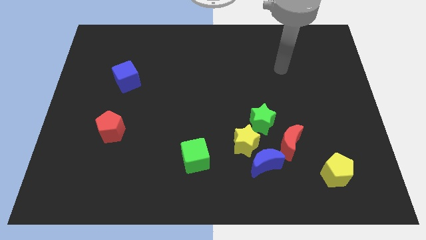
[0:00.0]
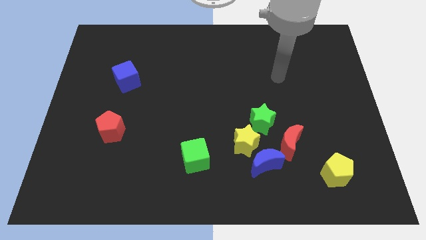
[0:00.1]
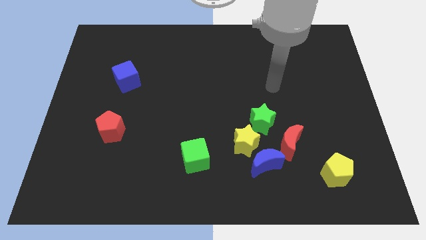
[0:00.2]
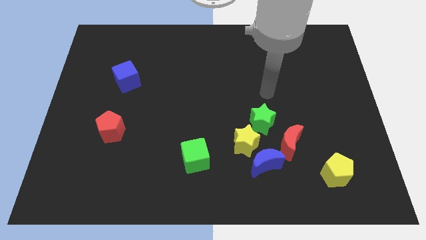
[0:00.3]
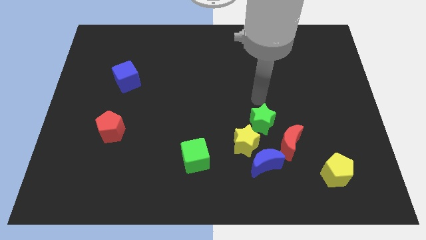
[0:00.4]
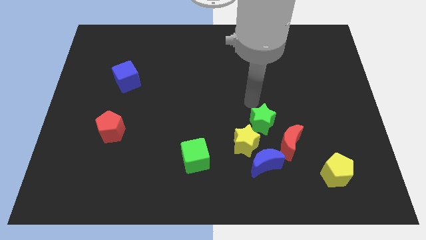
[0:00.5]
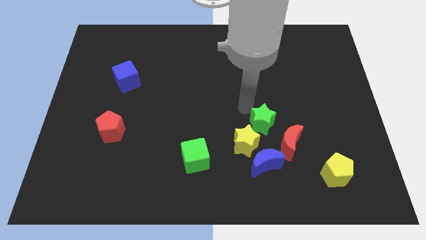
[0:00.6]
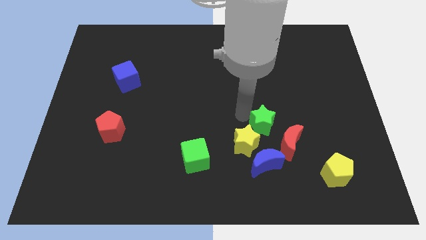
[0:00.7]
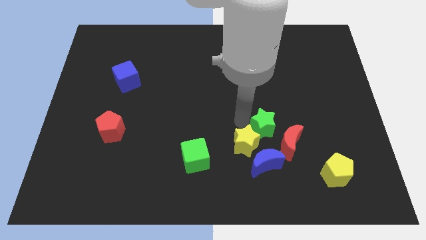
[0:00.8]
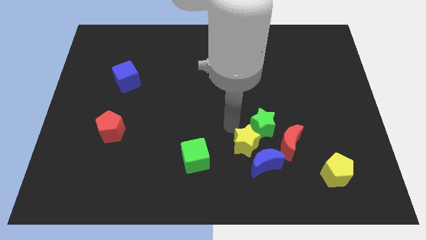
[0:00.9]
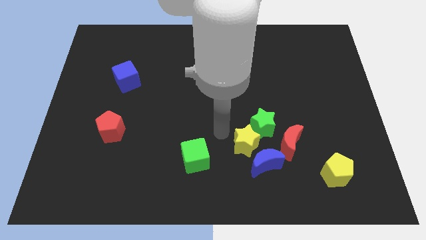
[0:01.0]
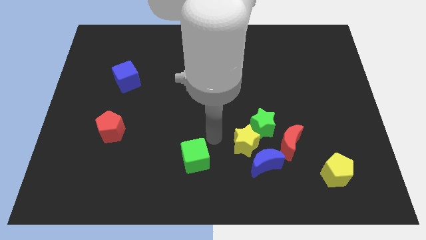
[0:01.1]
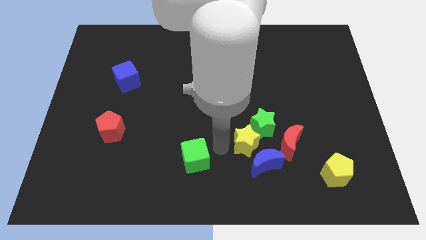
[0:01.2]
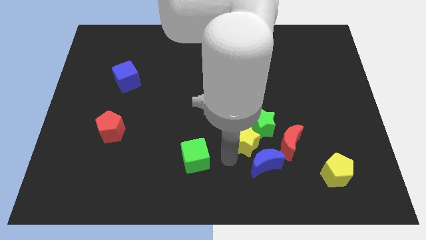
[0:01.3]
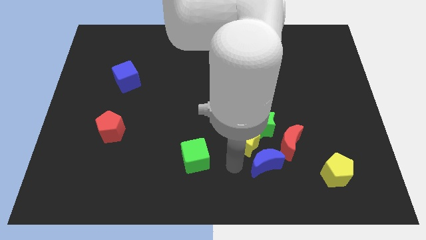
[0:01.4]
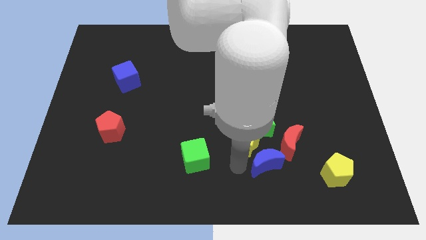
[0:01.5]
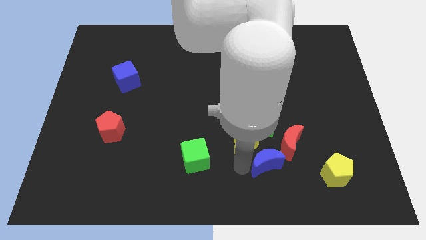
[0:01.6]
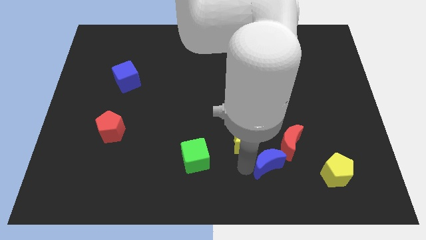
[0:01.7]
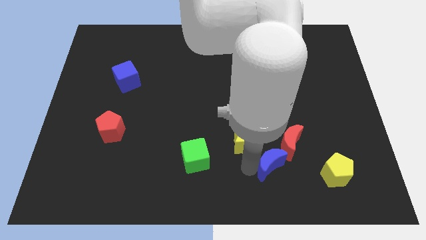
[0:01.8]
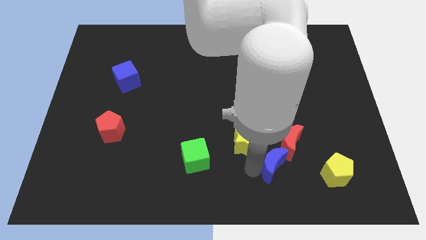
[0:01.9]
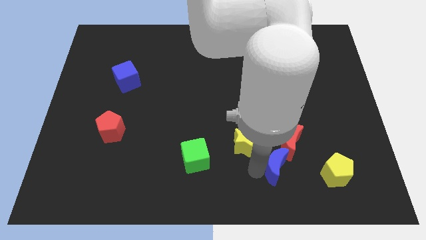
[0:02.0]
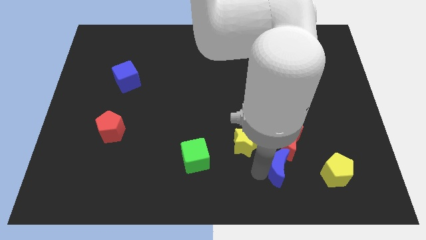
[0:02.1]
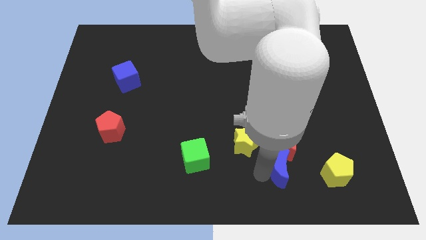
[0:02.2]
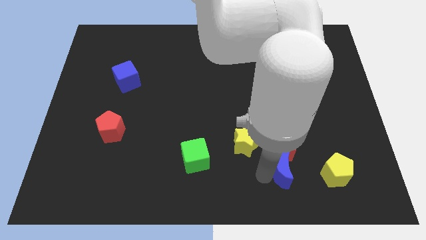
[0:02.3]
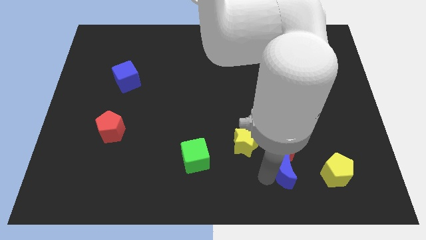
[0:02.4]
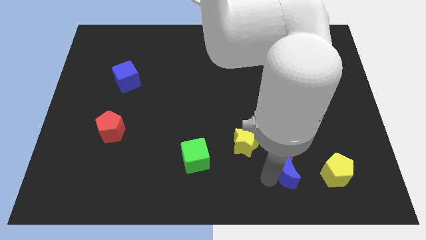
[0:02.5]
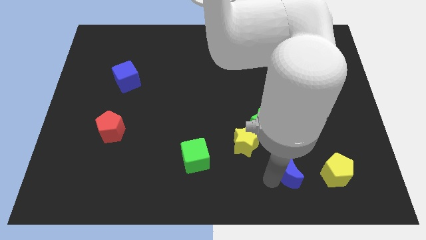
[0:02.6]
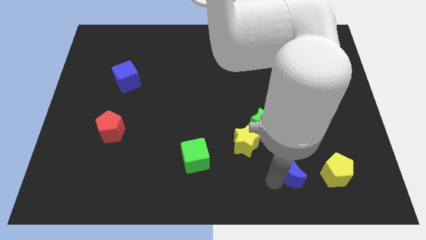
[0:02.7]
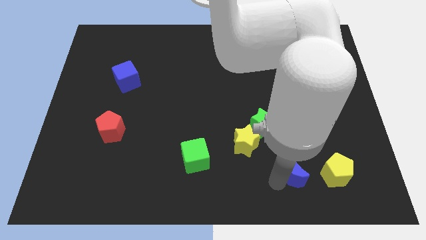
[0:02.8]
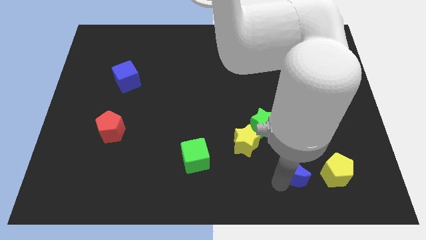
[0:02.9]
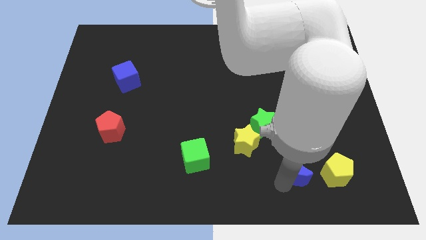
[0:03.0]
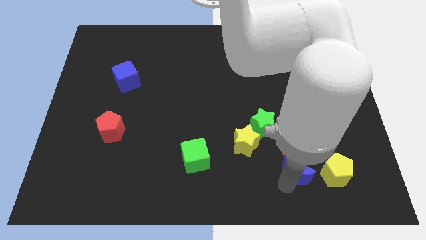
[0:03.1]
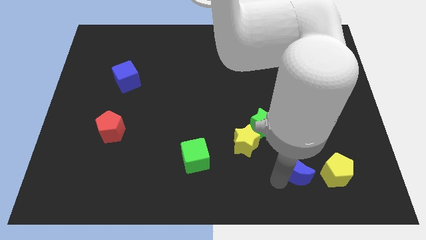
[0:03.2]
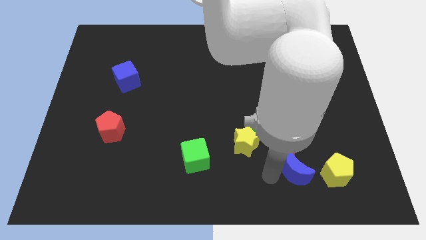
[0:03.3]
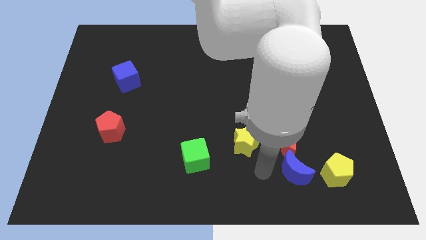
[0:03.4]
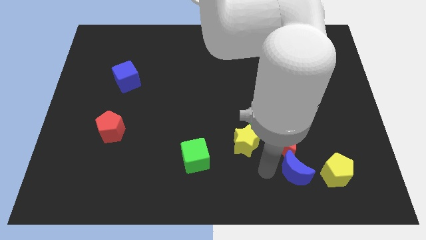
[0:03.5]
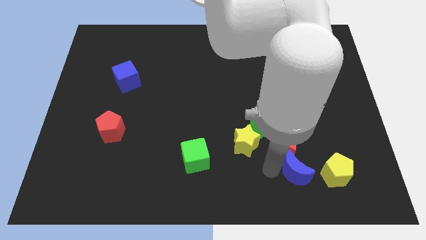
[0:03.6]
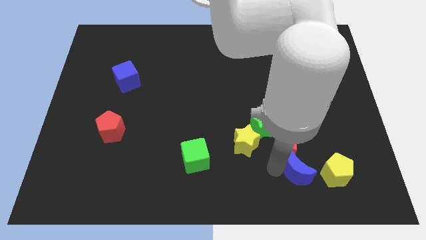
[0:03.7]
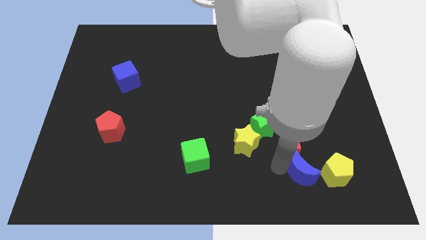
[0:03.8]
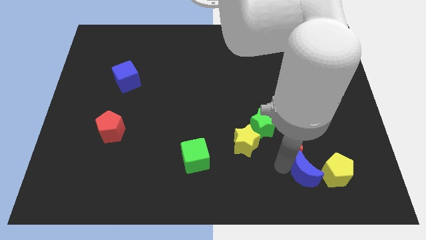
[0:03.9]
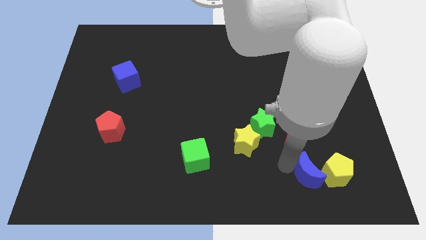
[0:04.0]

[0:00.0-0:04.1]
move the blue moon to the yellow pentagon

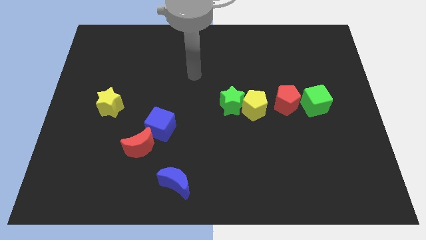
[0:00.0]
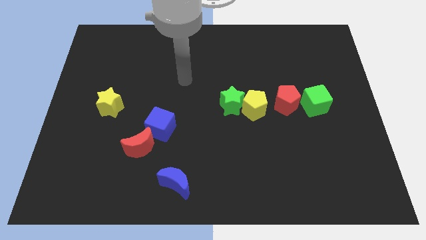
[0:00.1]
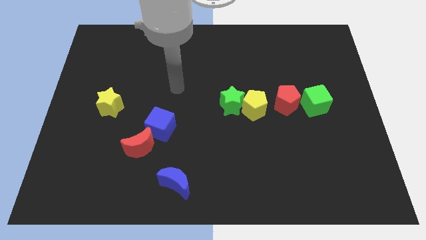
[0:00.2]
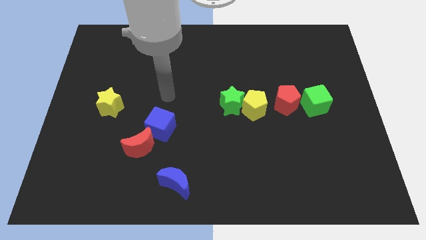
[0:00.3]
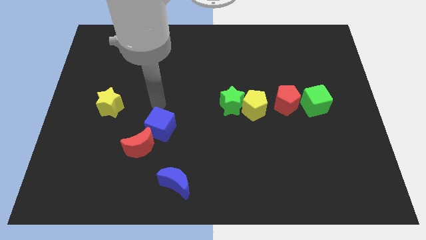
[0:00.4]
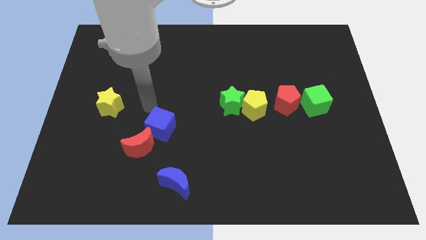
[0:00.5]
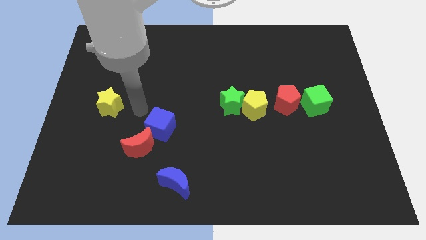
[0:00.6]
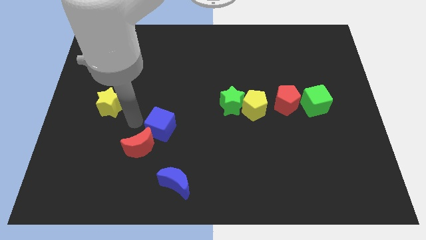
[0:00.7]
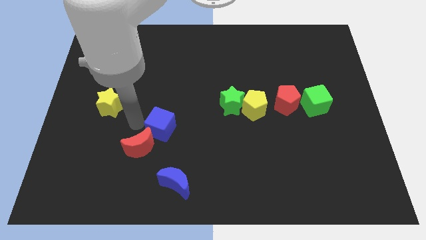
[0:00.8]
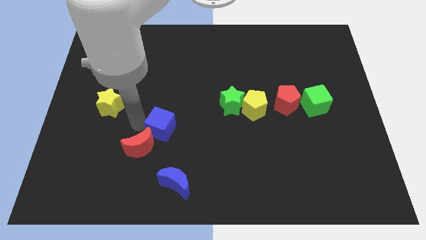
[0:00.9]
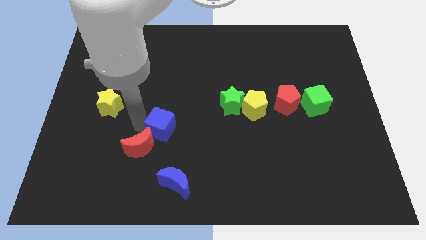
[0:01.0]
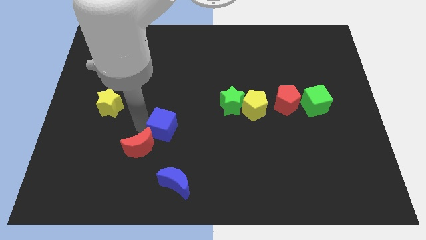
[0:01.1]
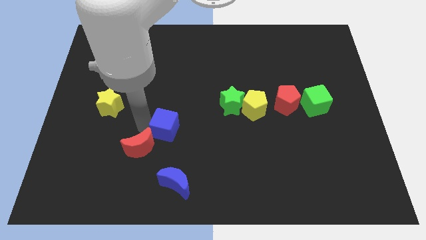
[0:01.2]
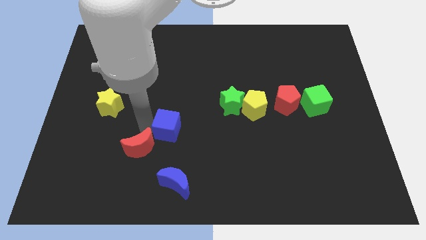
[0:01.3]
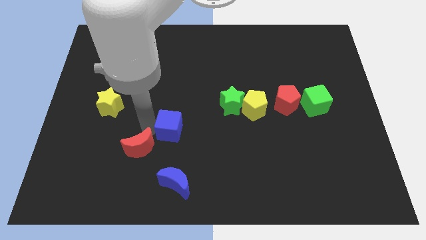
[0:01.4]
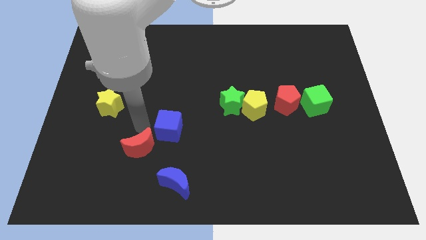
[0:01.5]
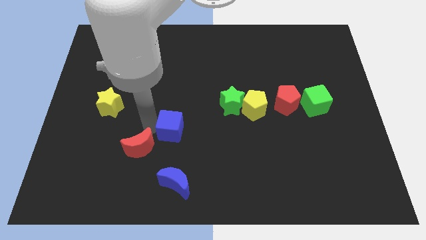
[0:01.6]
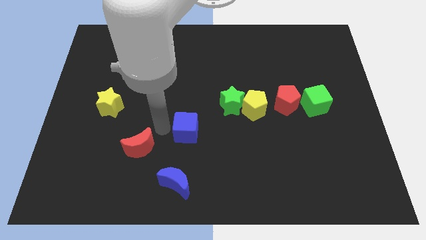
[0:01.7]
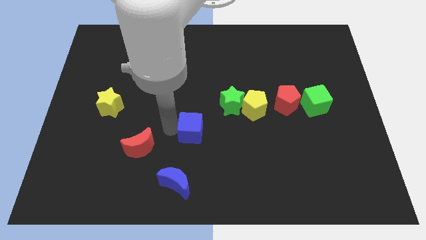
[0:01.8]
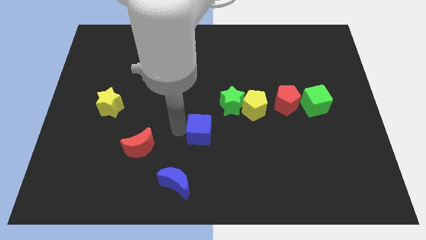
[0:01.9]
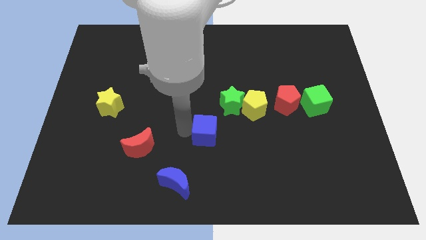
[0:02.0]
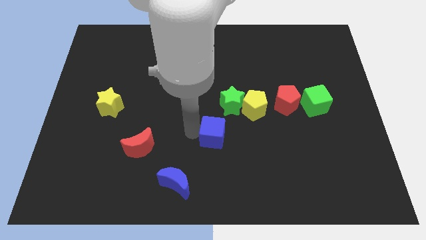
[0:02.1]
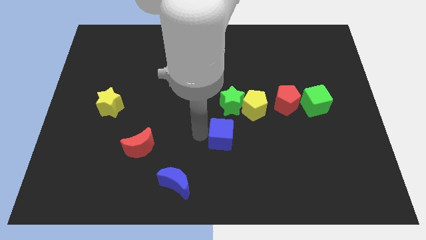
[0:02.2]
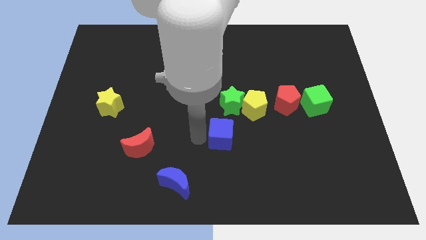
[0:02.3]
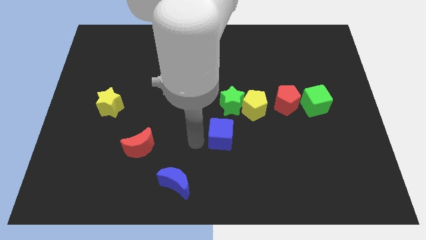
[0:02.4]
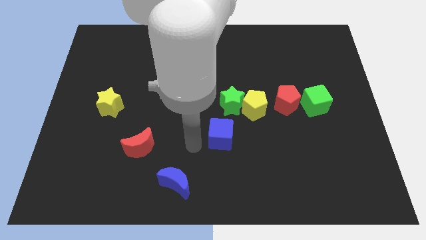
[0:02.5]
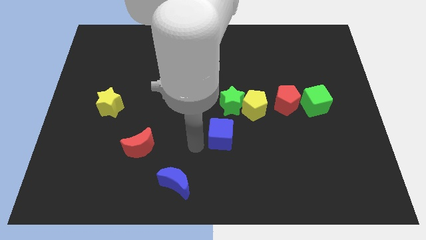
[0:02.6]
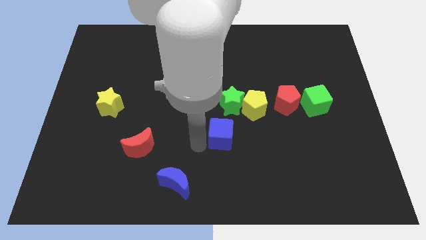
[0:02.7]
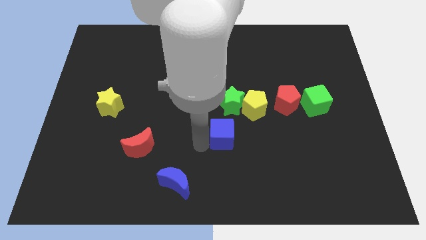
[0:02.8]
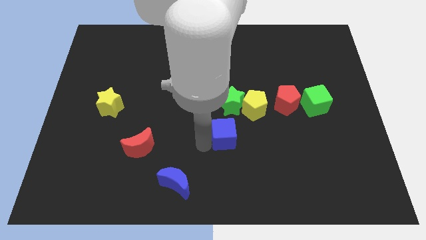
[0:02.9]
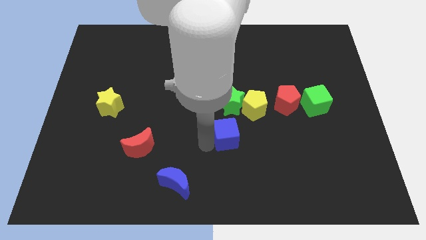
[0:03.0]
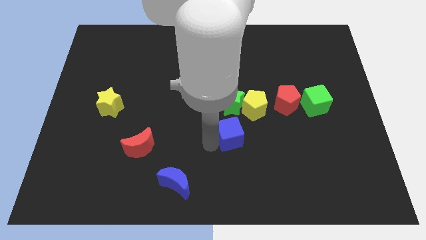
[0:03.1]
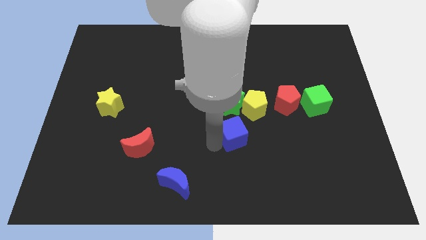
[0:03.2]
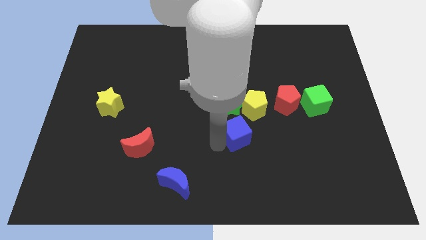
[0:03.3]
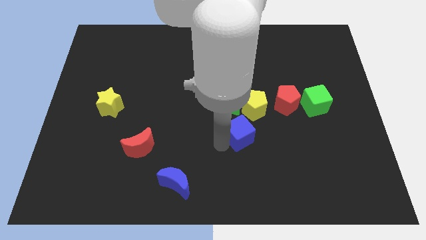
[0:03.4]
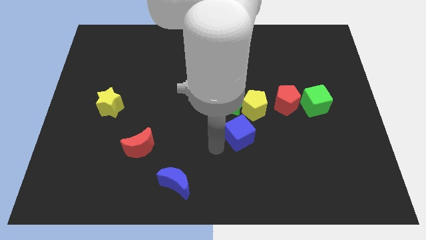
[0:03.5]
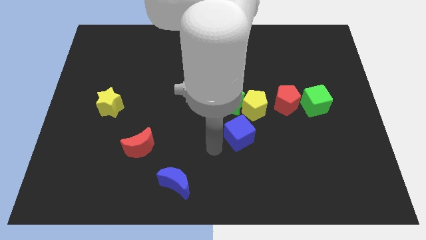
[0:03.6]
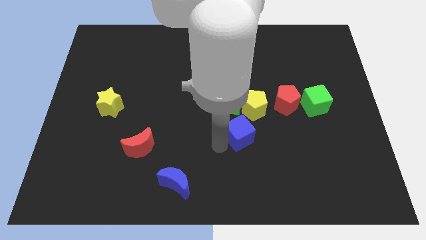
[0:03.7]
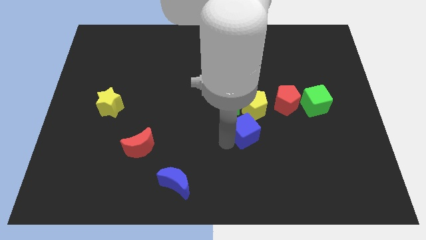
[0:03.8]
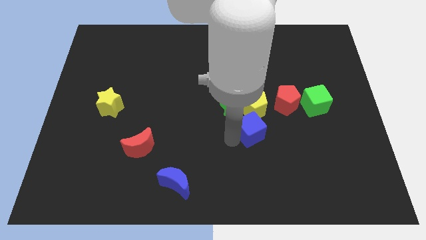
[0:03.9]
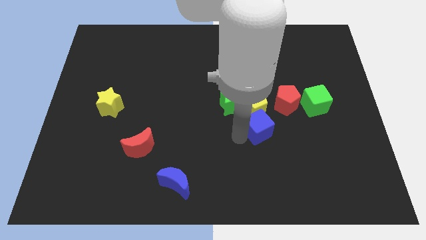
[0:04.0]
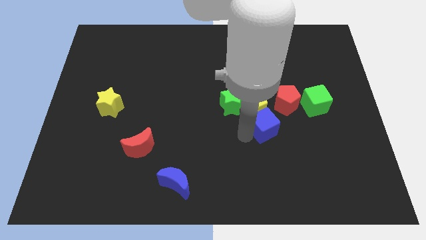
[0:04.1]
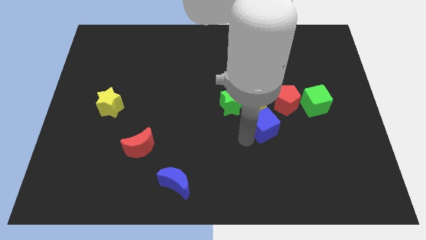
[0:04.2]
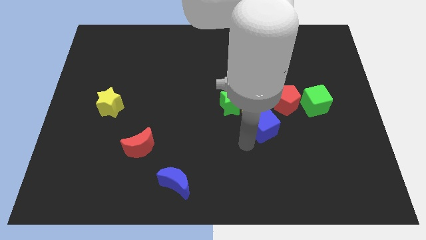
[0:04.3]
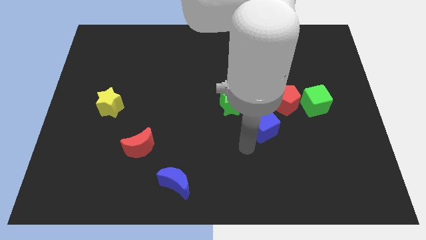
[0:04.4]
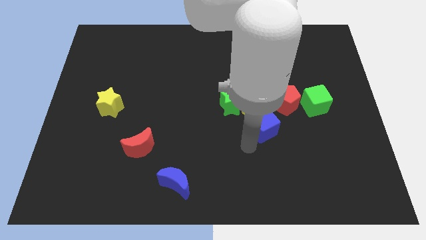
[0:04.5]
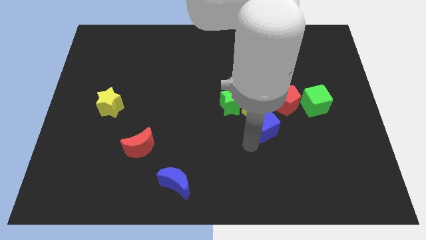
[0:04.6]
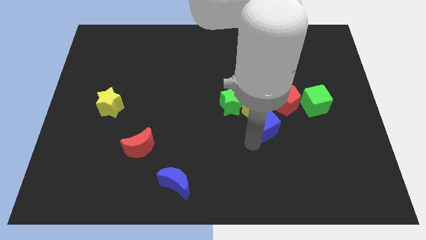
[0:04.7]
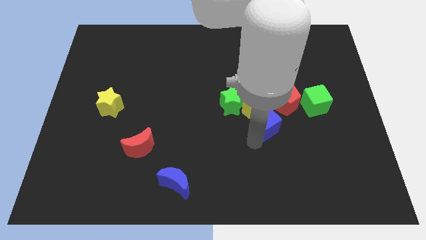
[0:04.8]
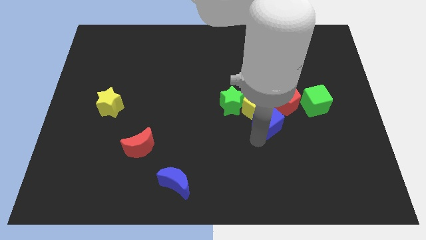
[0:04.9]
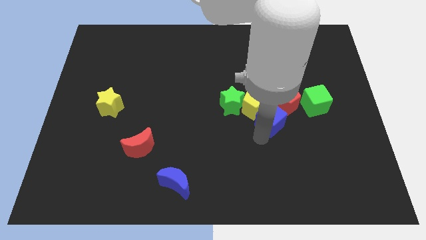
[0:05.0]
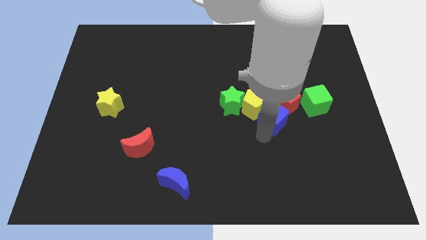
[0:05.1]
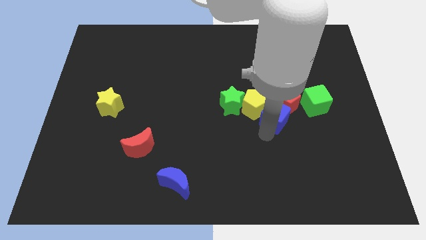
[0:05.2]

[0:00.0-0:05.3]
push the blue cube next to the red pentagon
